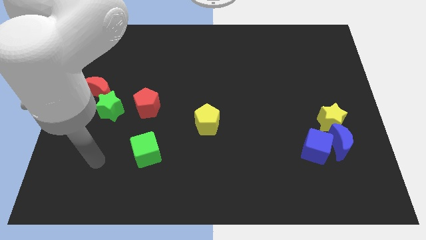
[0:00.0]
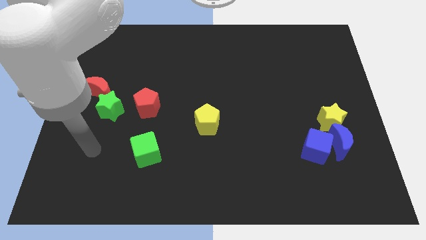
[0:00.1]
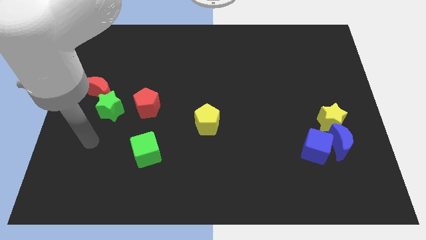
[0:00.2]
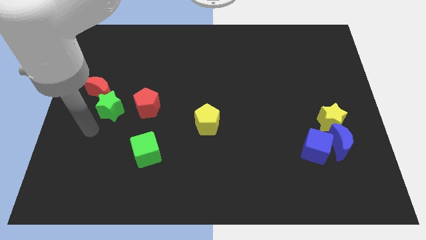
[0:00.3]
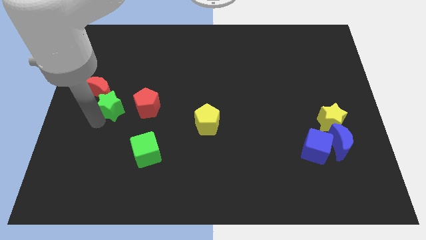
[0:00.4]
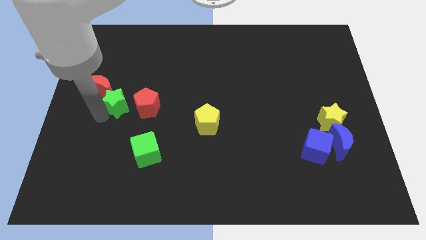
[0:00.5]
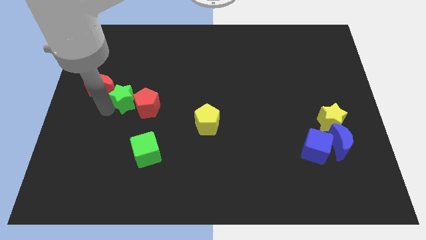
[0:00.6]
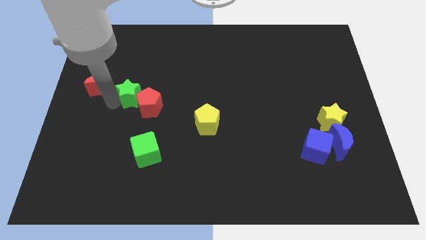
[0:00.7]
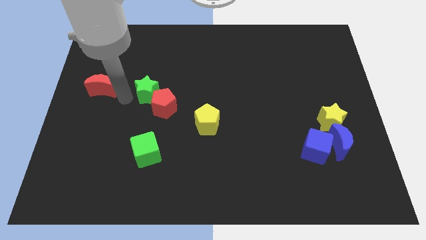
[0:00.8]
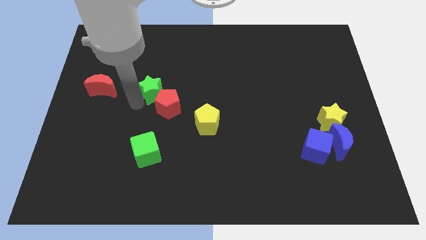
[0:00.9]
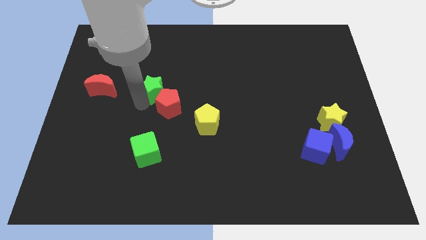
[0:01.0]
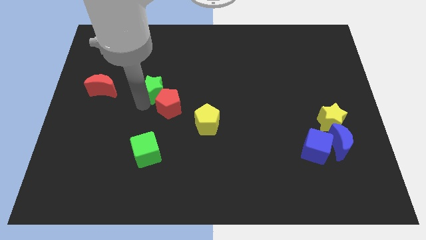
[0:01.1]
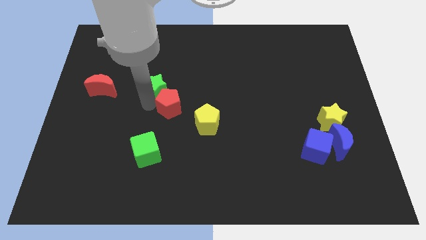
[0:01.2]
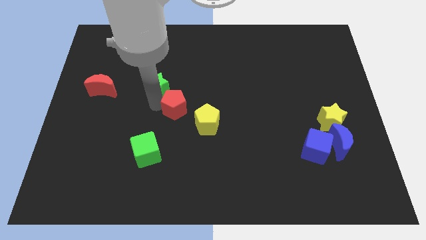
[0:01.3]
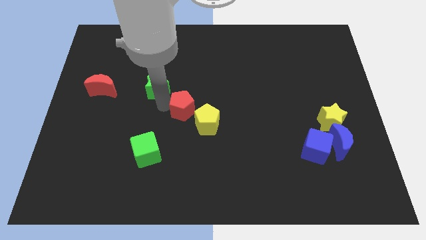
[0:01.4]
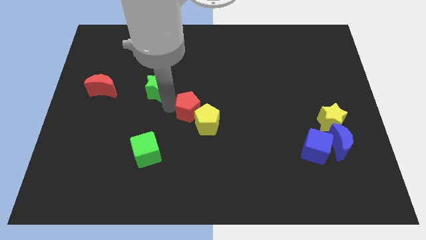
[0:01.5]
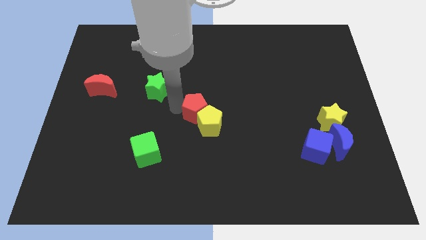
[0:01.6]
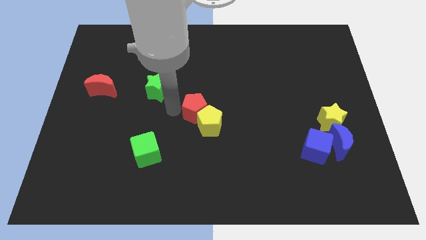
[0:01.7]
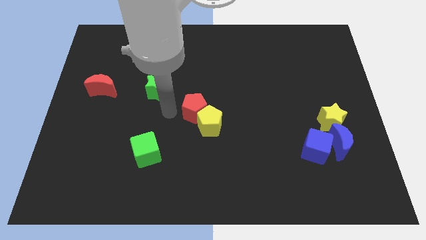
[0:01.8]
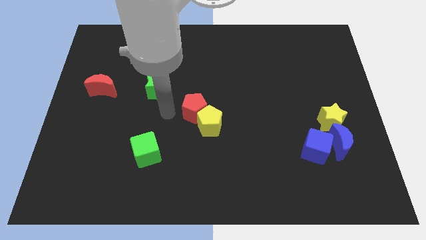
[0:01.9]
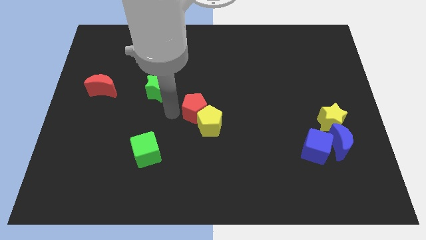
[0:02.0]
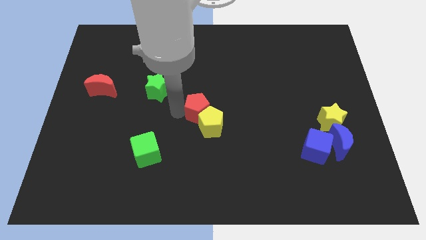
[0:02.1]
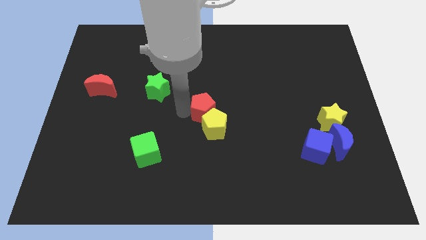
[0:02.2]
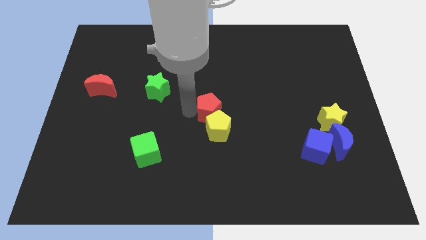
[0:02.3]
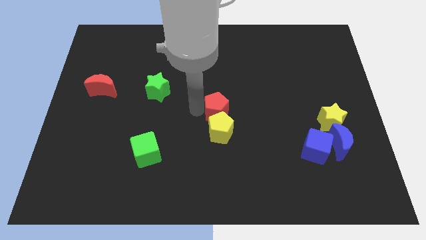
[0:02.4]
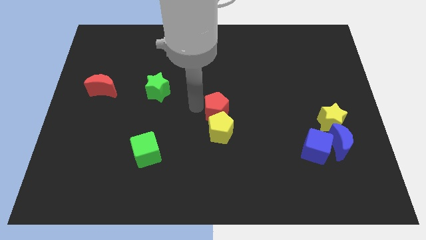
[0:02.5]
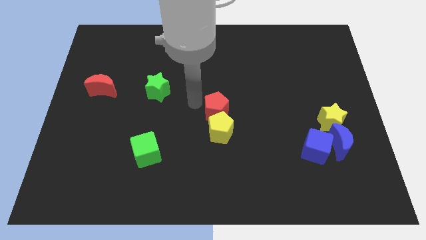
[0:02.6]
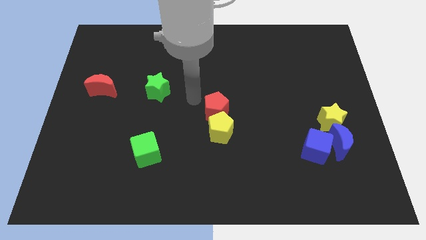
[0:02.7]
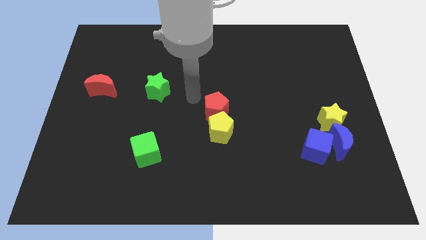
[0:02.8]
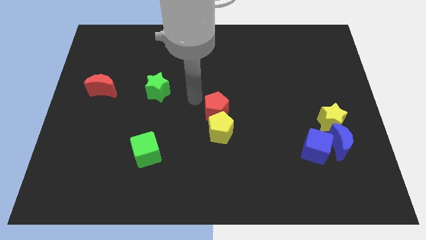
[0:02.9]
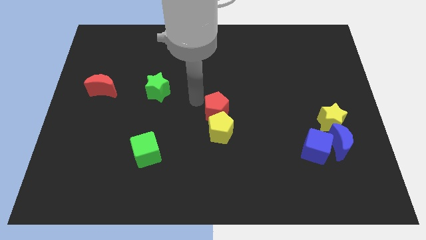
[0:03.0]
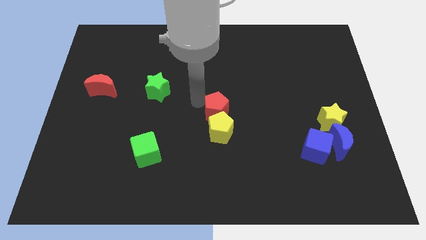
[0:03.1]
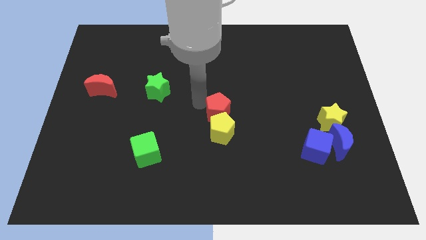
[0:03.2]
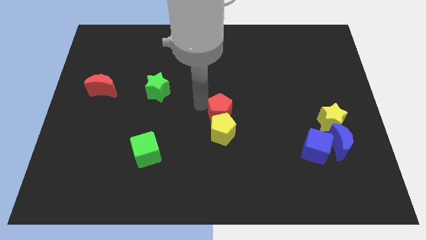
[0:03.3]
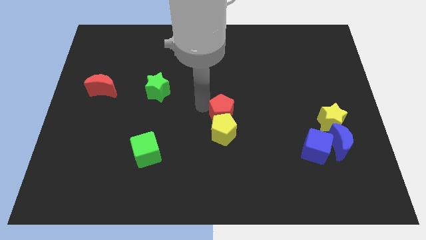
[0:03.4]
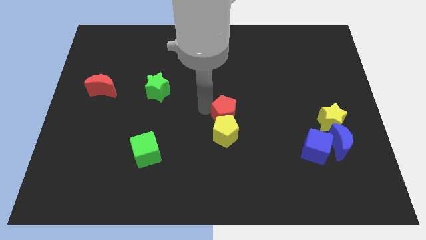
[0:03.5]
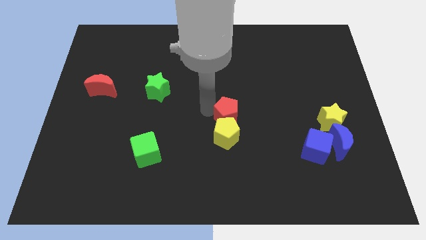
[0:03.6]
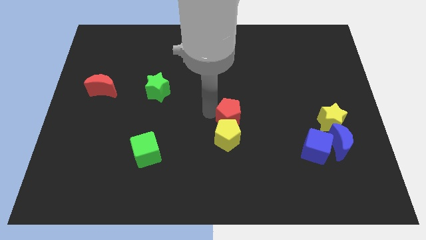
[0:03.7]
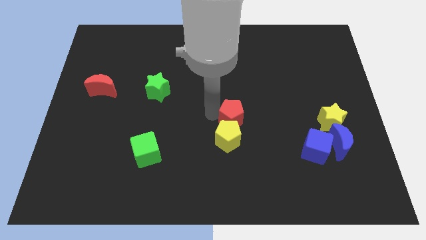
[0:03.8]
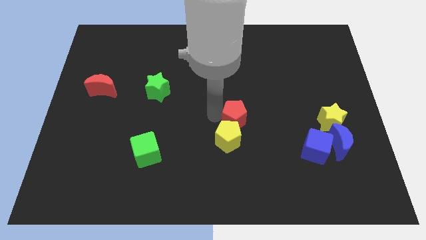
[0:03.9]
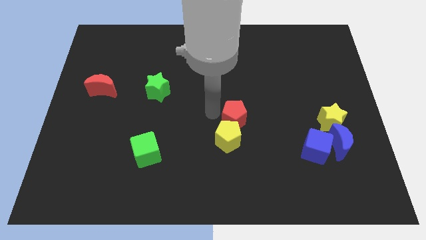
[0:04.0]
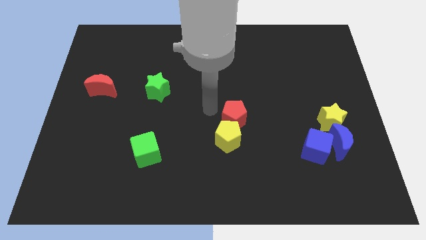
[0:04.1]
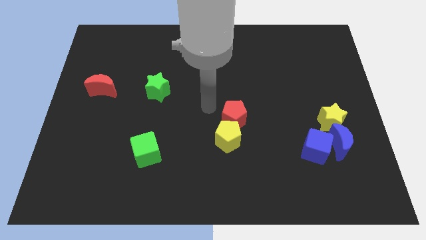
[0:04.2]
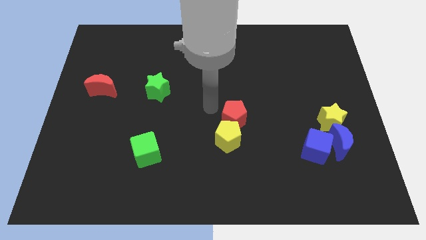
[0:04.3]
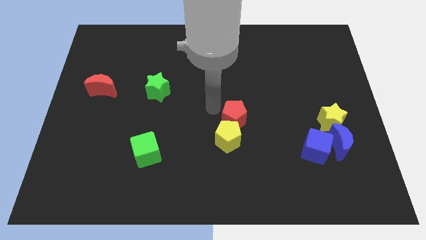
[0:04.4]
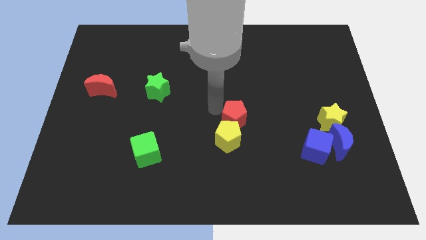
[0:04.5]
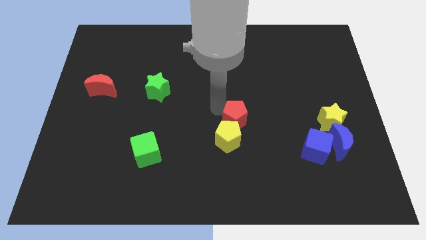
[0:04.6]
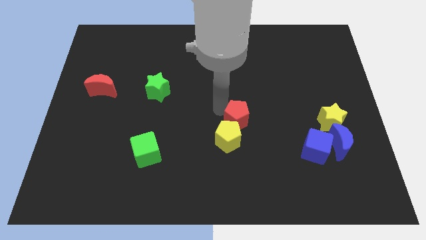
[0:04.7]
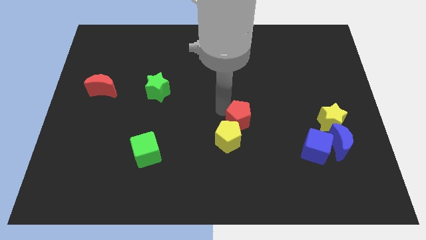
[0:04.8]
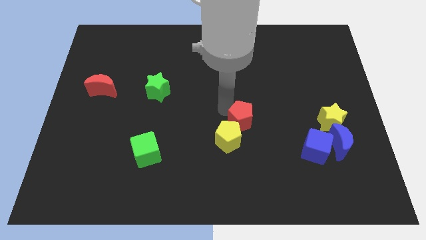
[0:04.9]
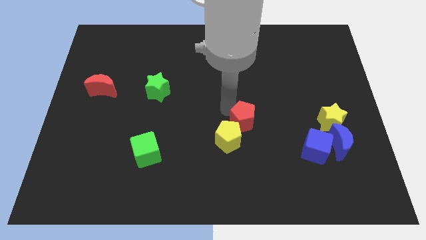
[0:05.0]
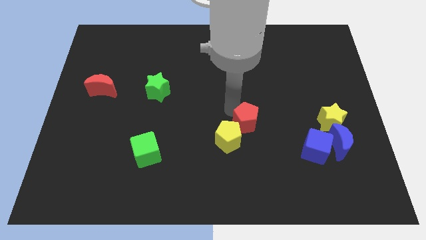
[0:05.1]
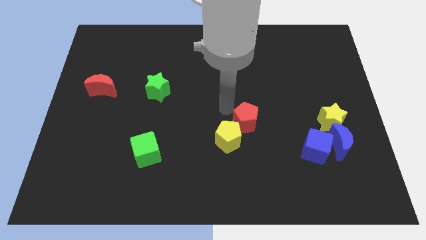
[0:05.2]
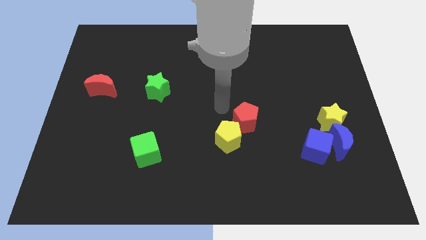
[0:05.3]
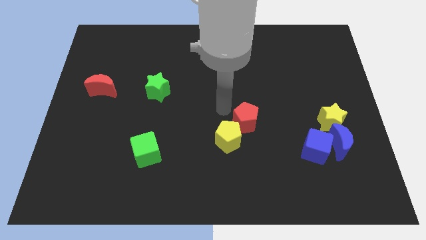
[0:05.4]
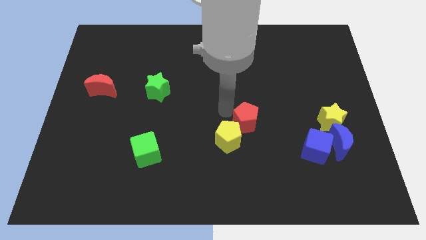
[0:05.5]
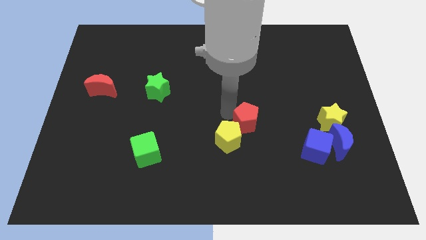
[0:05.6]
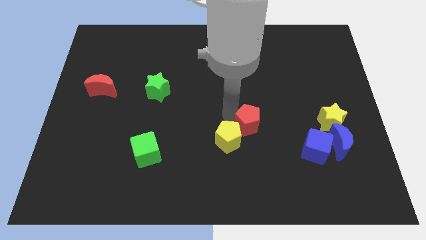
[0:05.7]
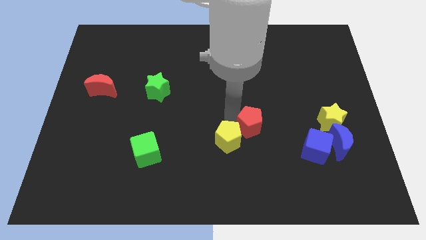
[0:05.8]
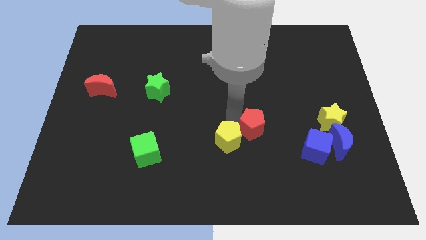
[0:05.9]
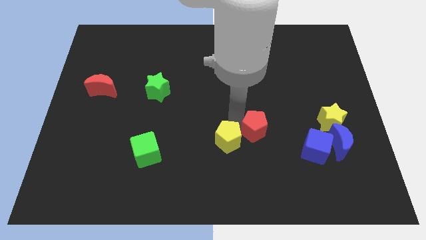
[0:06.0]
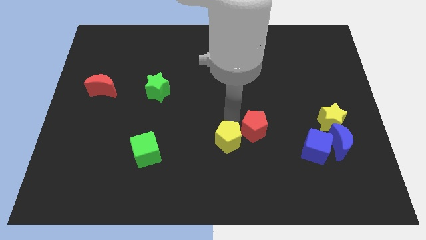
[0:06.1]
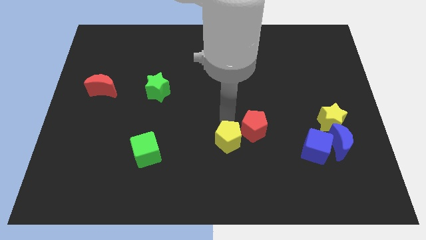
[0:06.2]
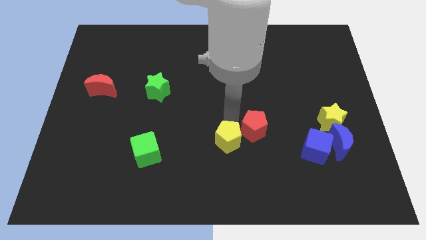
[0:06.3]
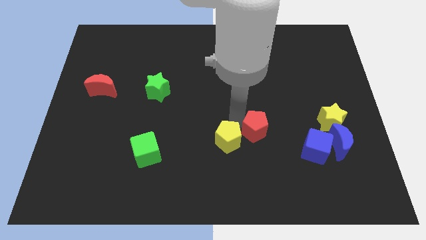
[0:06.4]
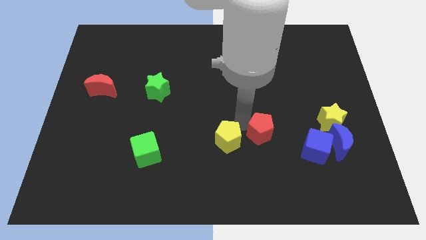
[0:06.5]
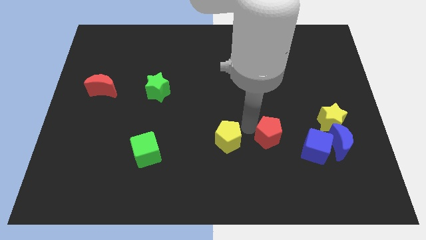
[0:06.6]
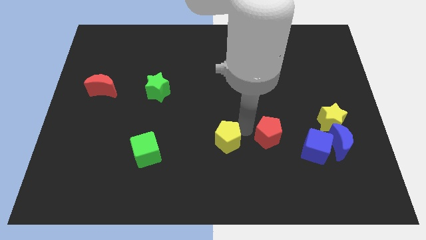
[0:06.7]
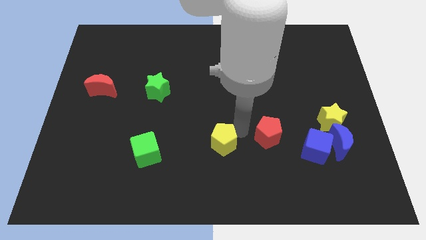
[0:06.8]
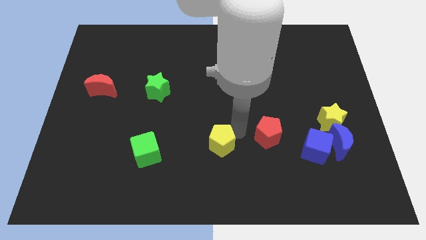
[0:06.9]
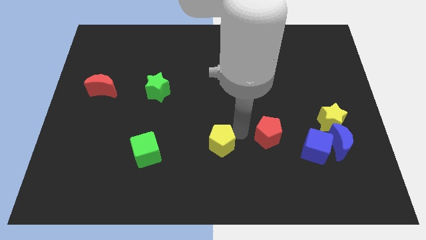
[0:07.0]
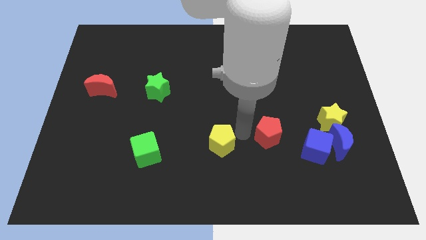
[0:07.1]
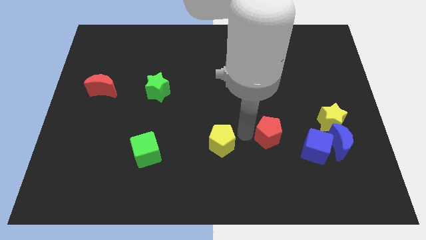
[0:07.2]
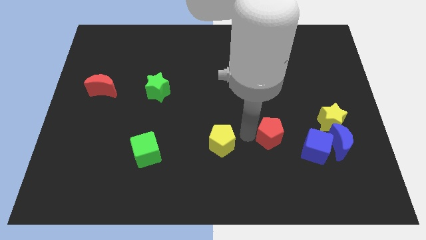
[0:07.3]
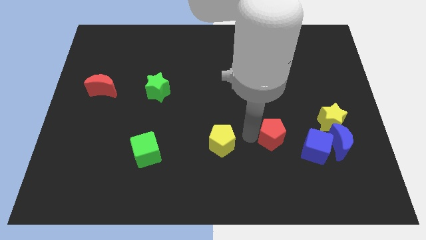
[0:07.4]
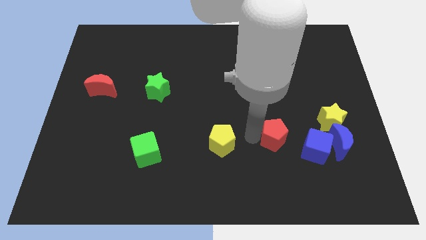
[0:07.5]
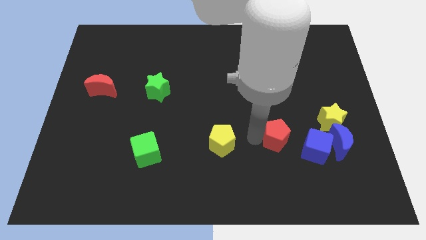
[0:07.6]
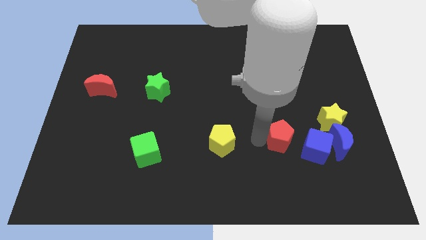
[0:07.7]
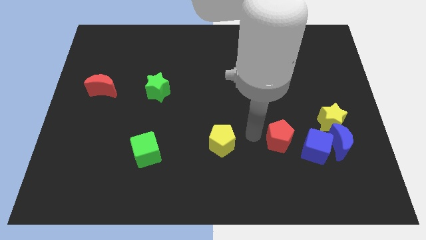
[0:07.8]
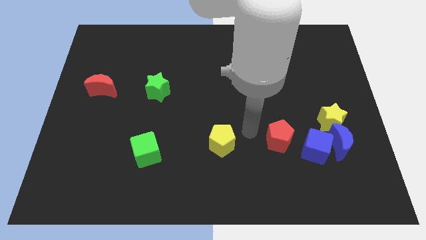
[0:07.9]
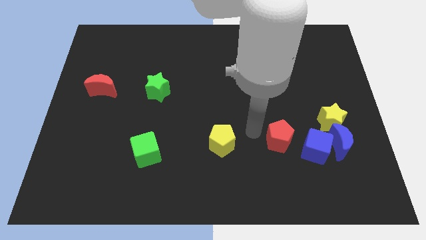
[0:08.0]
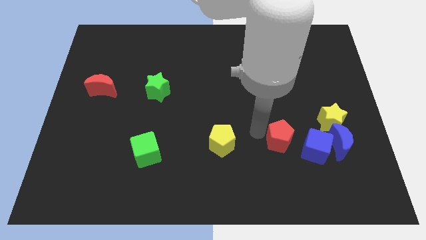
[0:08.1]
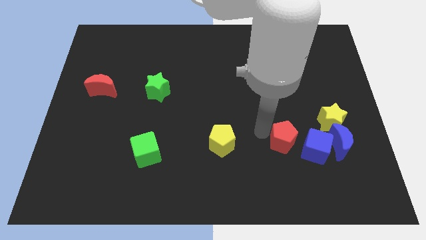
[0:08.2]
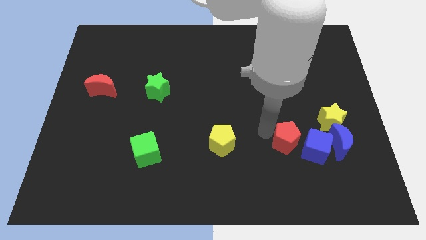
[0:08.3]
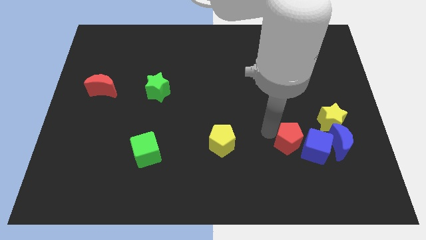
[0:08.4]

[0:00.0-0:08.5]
push the red pentagon next to the blue cube
